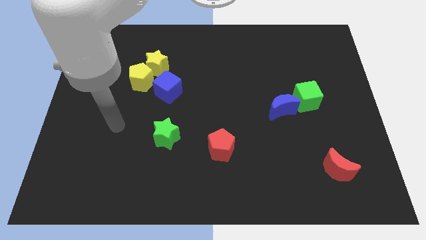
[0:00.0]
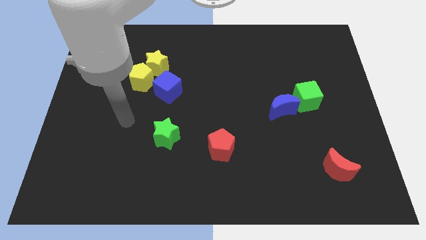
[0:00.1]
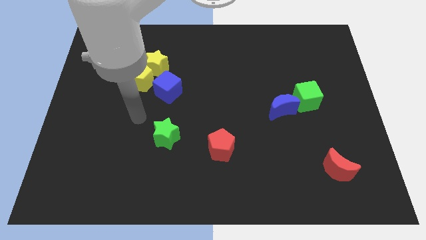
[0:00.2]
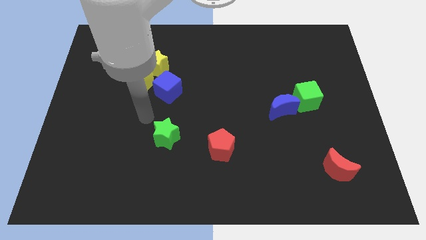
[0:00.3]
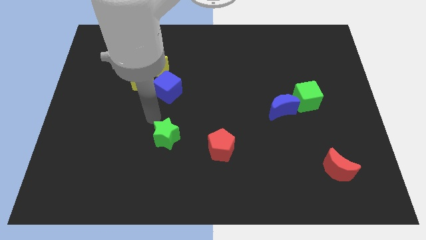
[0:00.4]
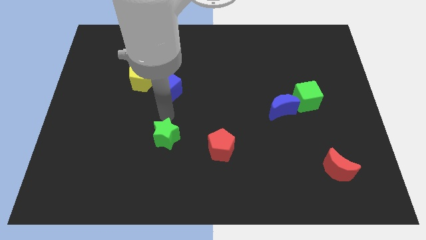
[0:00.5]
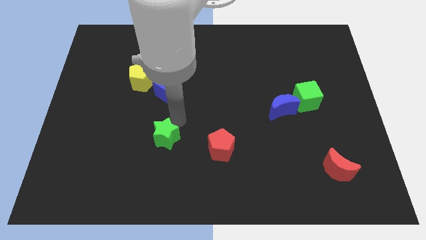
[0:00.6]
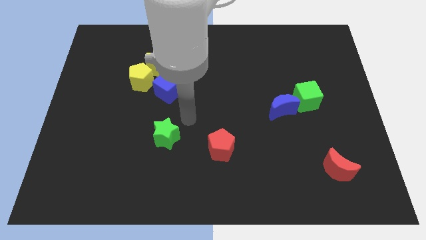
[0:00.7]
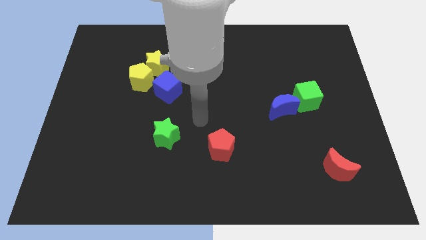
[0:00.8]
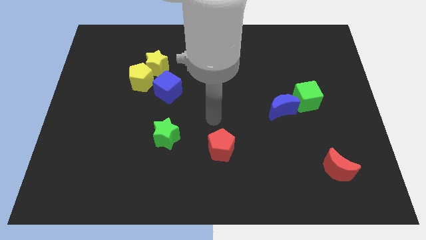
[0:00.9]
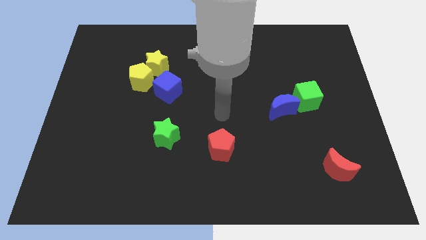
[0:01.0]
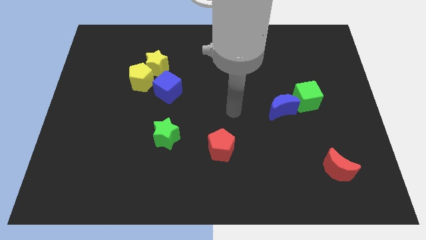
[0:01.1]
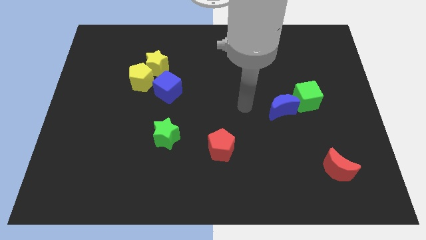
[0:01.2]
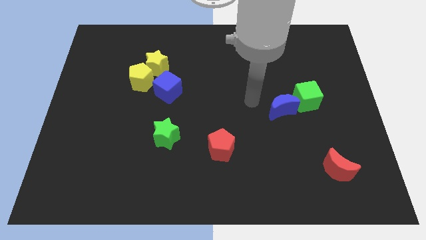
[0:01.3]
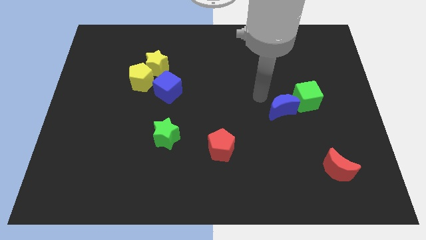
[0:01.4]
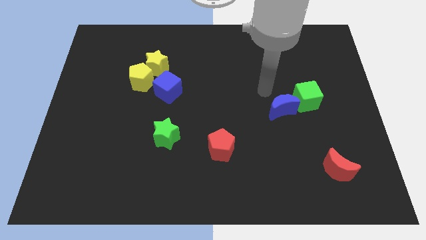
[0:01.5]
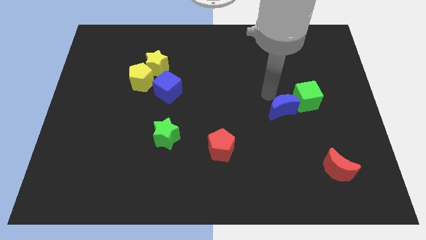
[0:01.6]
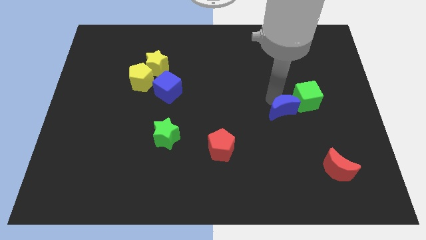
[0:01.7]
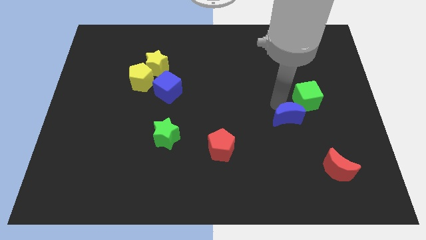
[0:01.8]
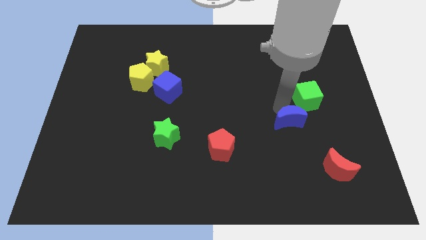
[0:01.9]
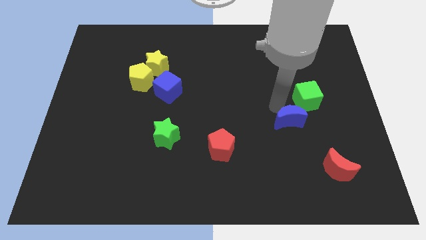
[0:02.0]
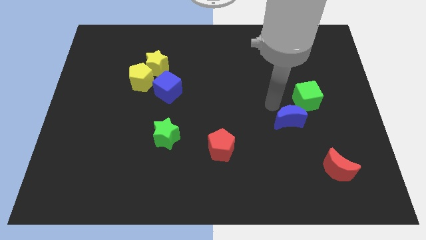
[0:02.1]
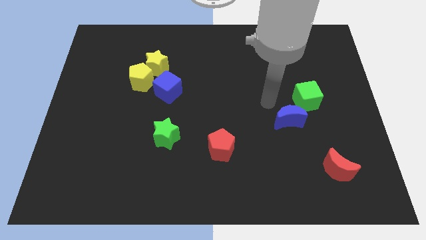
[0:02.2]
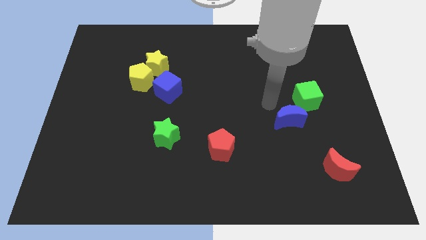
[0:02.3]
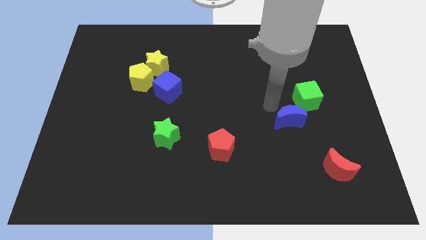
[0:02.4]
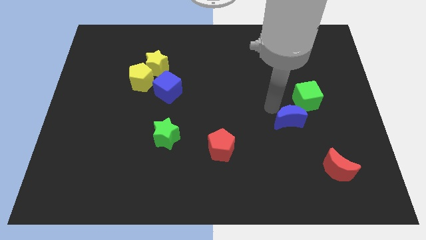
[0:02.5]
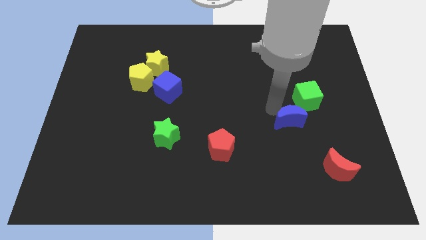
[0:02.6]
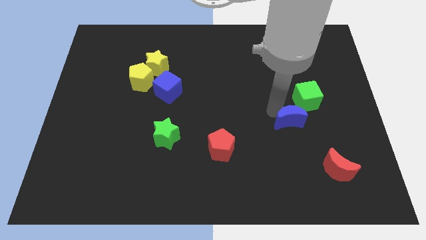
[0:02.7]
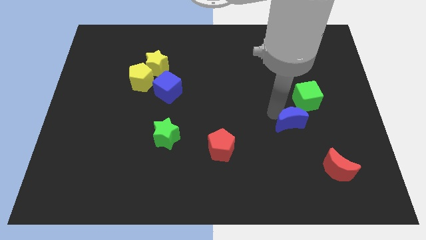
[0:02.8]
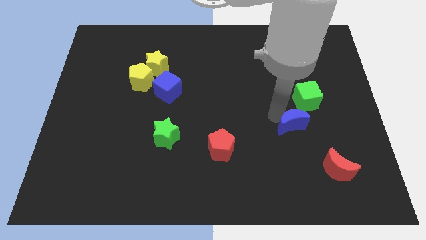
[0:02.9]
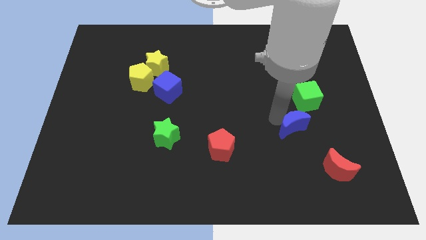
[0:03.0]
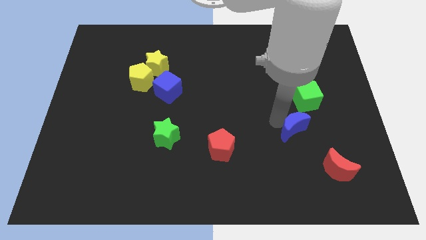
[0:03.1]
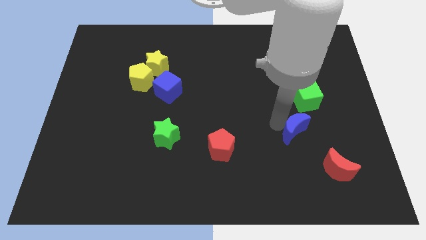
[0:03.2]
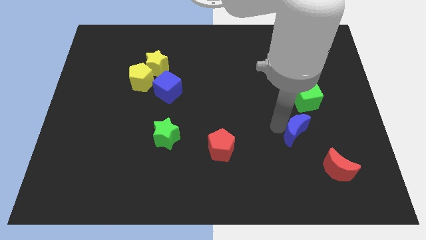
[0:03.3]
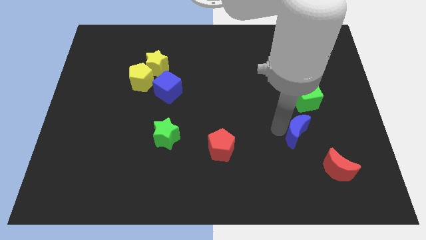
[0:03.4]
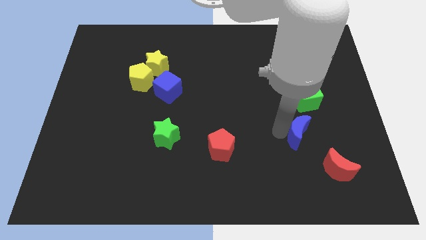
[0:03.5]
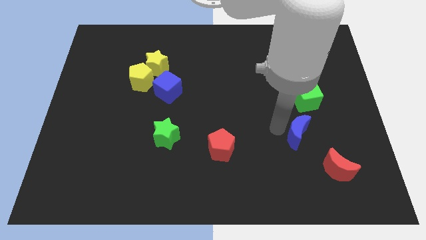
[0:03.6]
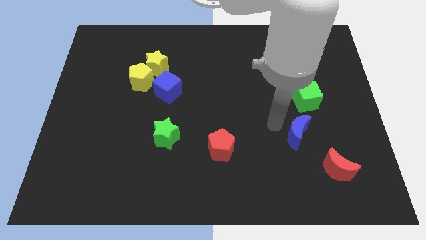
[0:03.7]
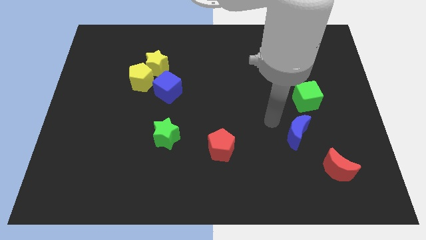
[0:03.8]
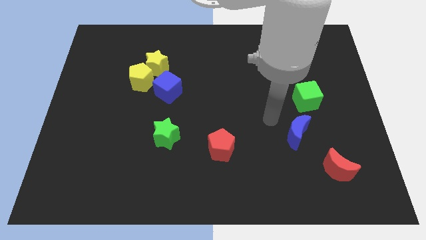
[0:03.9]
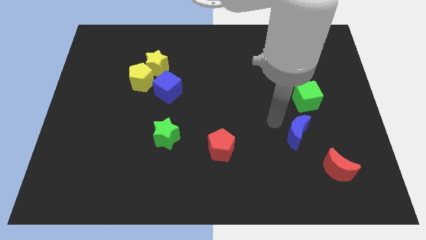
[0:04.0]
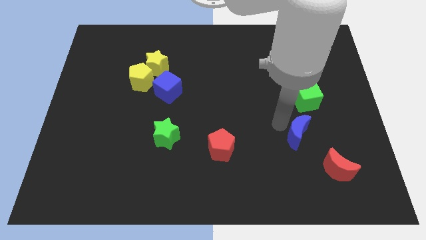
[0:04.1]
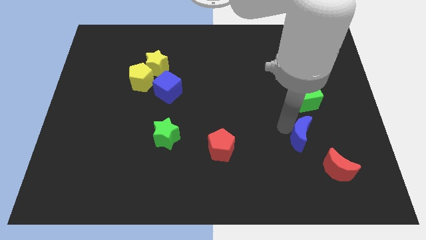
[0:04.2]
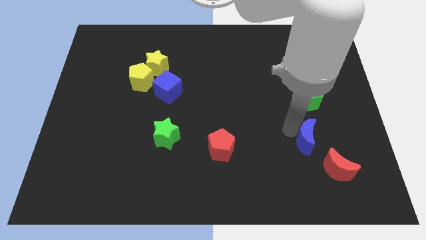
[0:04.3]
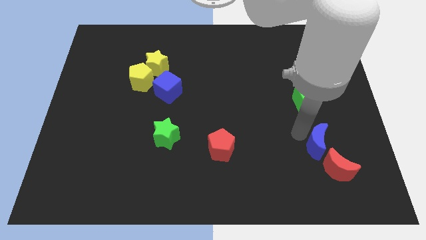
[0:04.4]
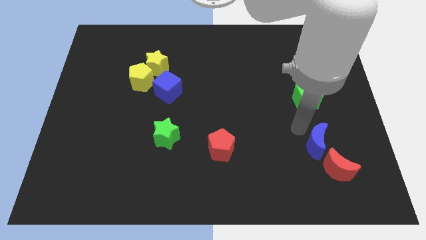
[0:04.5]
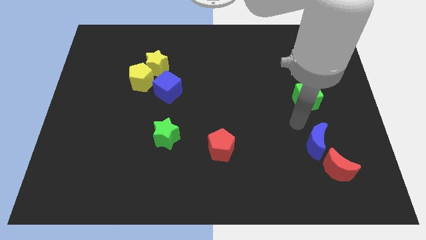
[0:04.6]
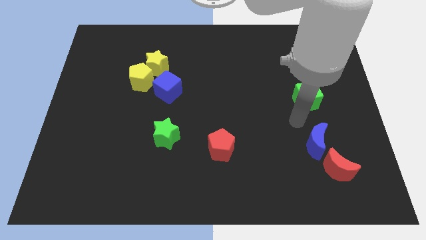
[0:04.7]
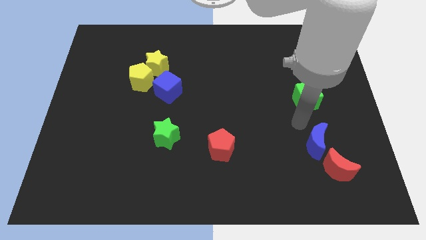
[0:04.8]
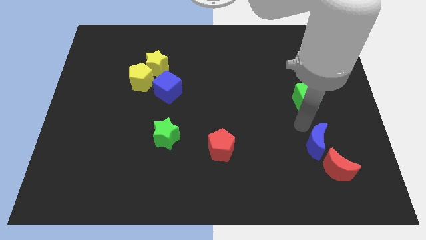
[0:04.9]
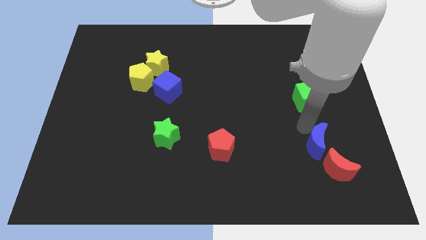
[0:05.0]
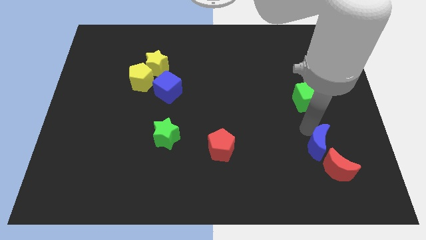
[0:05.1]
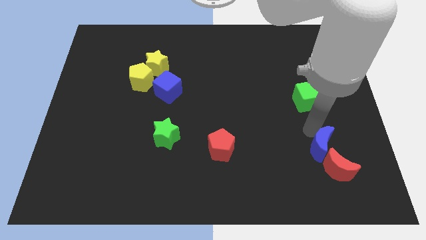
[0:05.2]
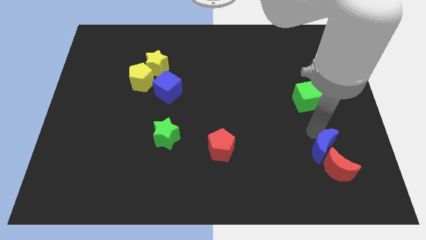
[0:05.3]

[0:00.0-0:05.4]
push the blue moon towards the red moon

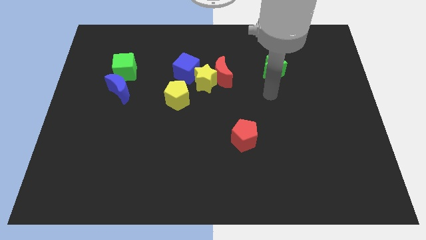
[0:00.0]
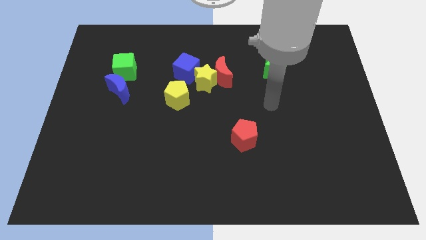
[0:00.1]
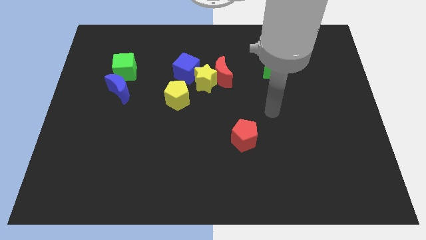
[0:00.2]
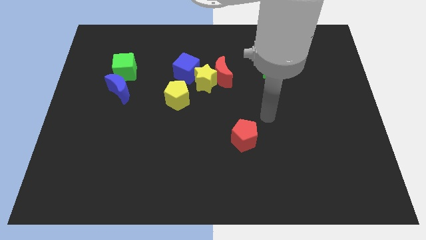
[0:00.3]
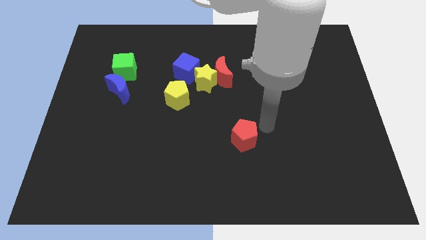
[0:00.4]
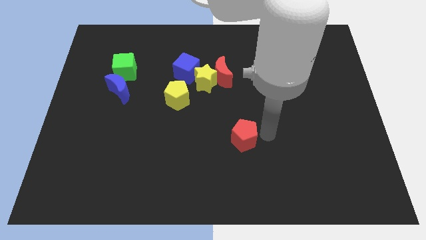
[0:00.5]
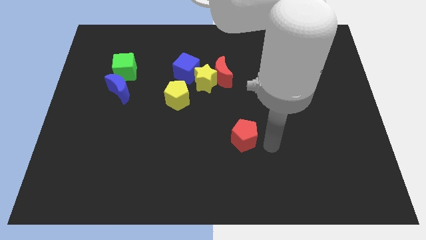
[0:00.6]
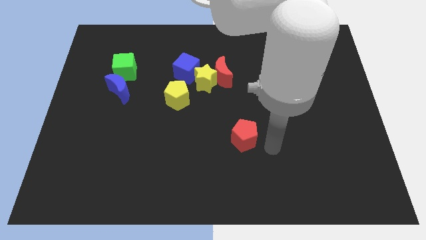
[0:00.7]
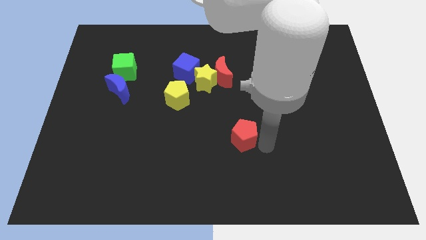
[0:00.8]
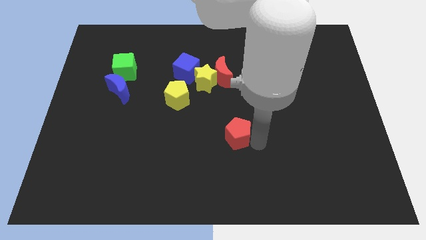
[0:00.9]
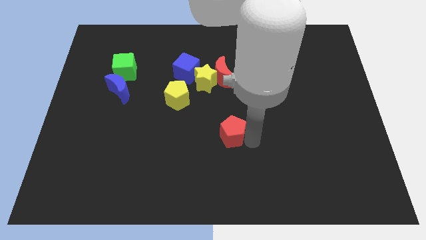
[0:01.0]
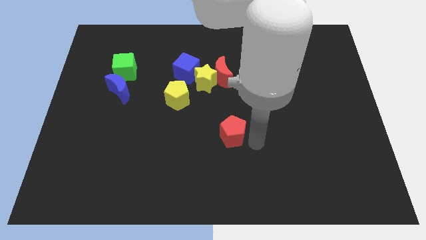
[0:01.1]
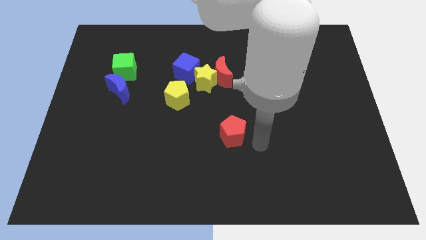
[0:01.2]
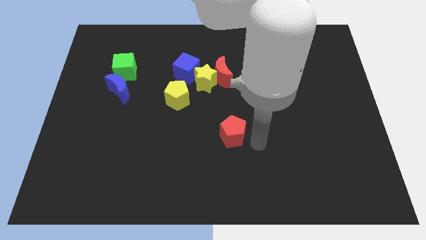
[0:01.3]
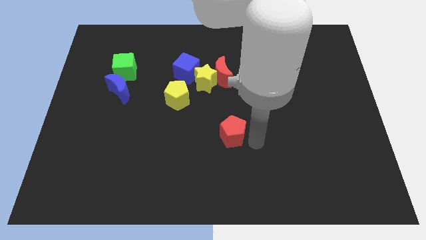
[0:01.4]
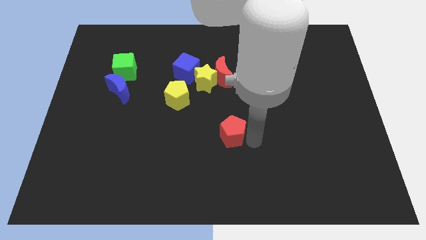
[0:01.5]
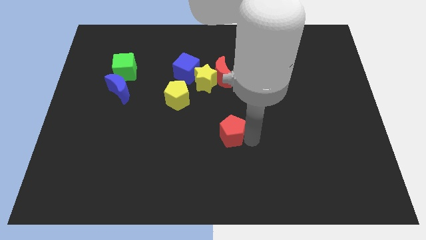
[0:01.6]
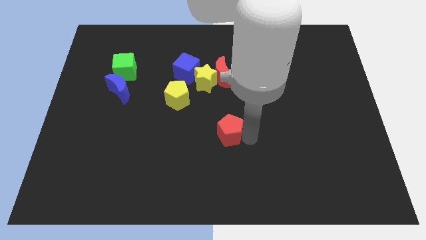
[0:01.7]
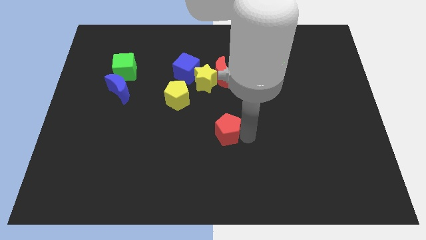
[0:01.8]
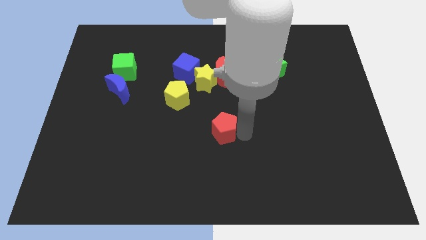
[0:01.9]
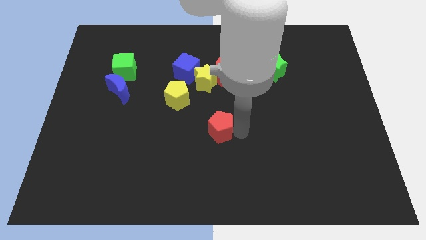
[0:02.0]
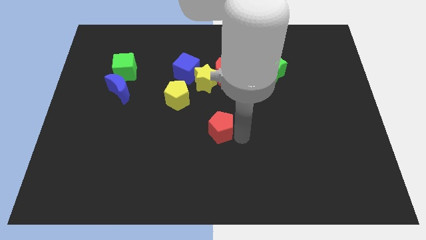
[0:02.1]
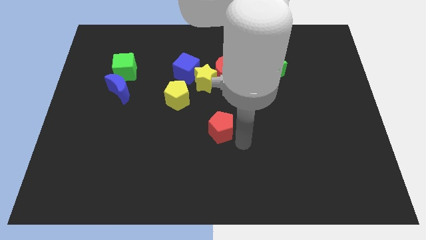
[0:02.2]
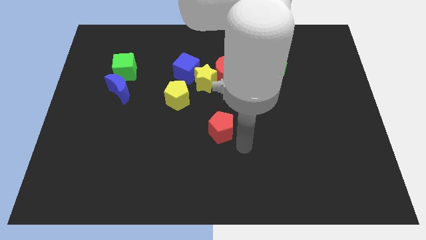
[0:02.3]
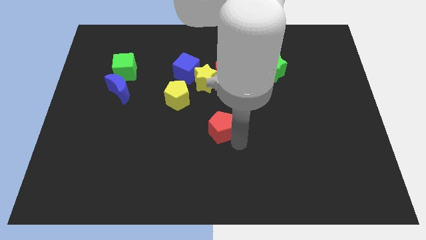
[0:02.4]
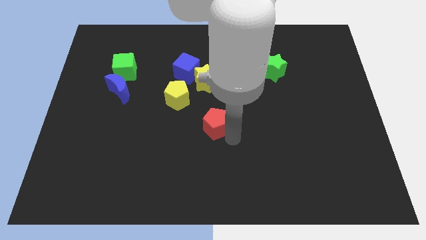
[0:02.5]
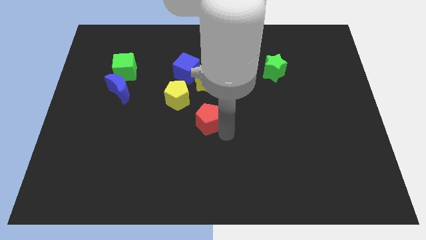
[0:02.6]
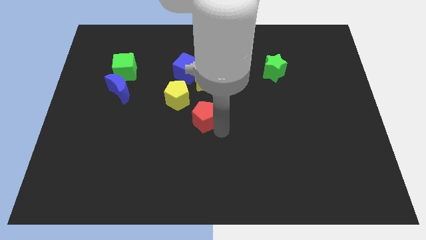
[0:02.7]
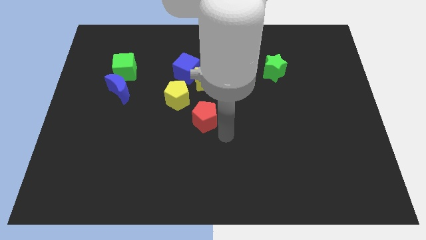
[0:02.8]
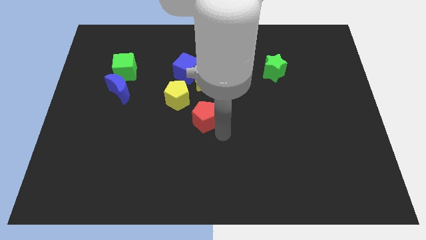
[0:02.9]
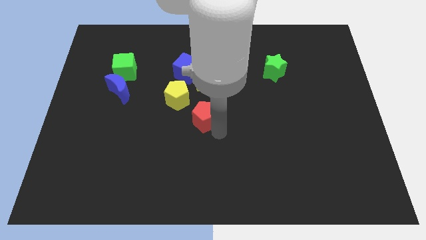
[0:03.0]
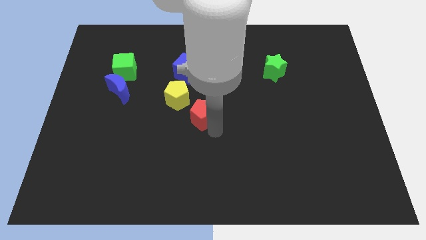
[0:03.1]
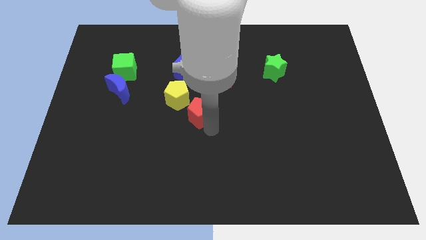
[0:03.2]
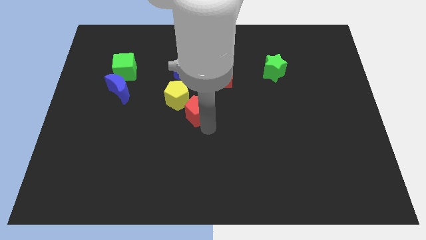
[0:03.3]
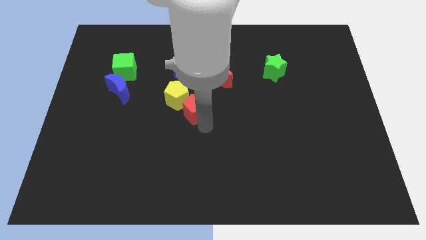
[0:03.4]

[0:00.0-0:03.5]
push the red pentagon towards the yellow pentagon
